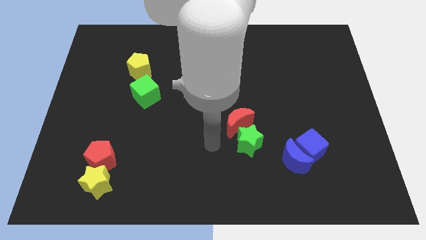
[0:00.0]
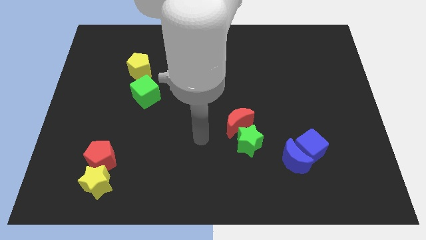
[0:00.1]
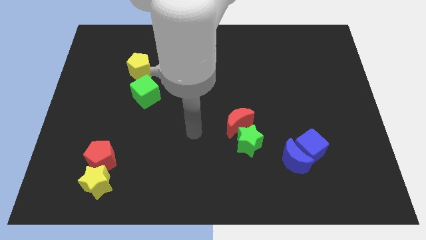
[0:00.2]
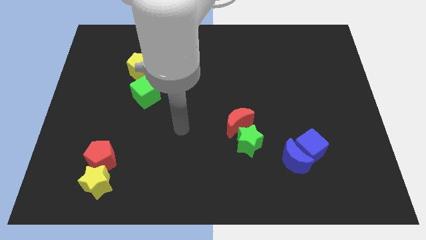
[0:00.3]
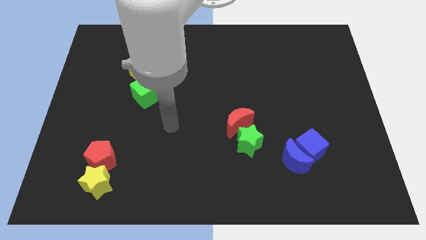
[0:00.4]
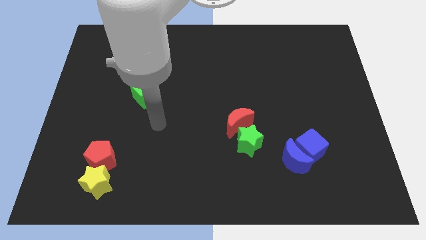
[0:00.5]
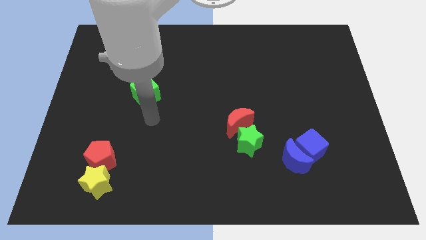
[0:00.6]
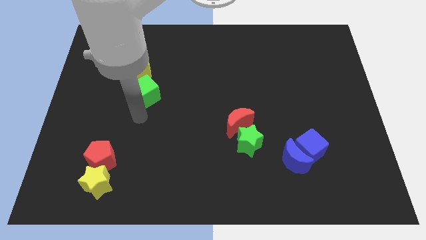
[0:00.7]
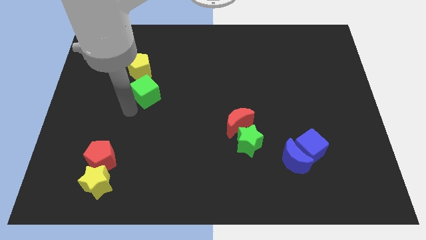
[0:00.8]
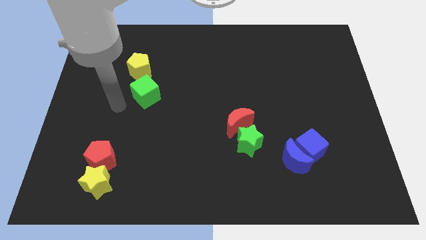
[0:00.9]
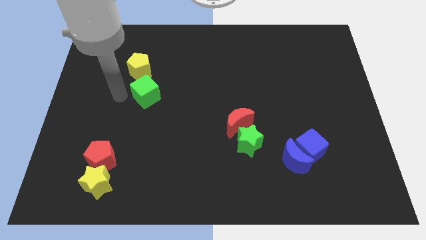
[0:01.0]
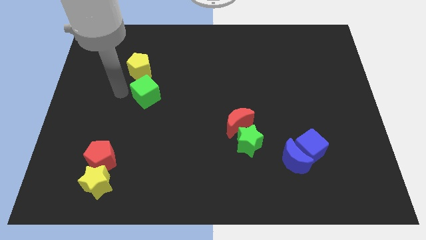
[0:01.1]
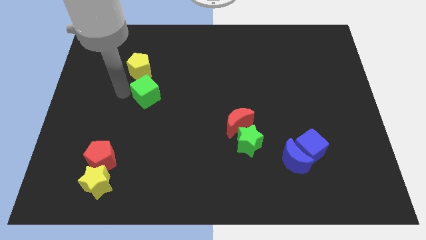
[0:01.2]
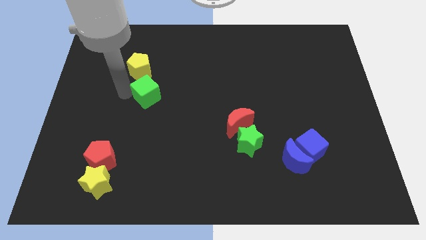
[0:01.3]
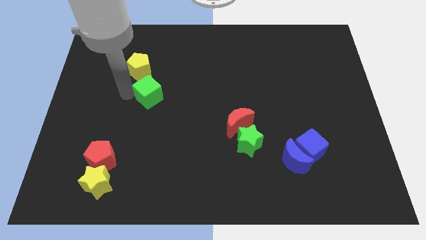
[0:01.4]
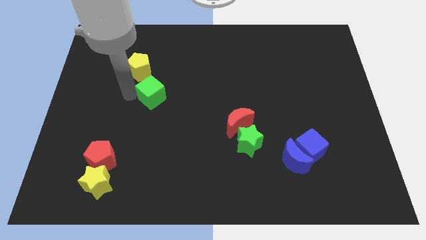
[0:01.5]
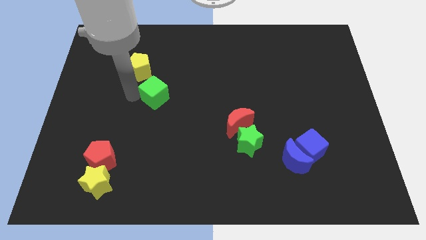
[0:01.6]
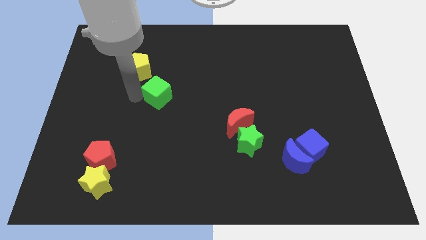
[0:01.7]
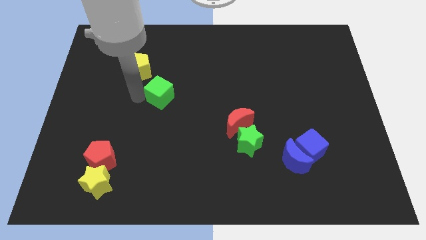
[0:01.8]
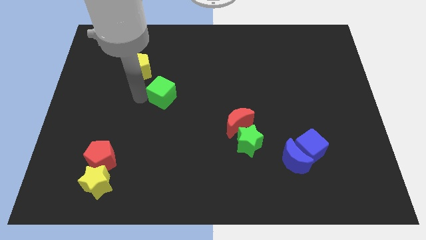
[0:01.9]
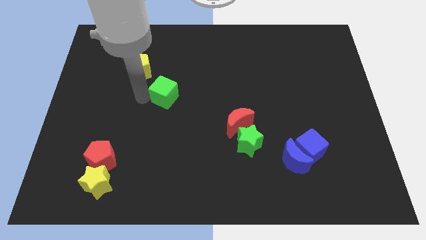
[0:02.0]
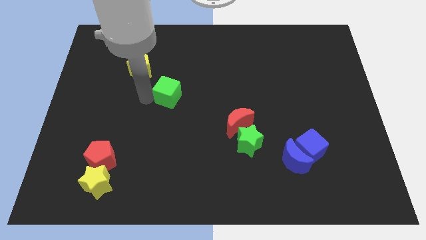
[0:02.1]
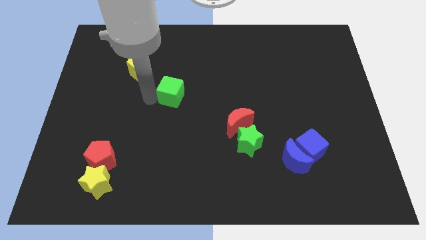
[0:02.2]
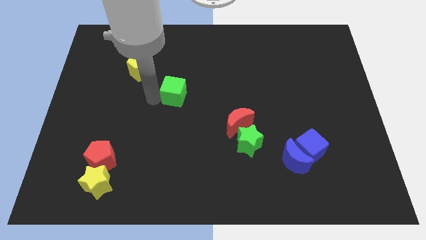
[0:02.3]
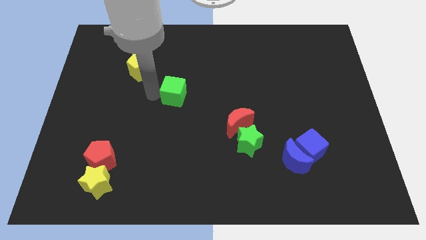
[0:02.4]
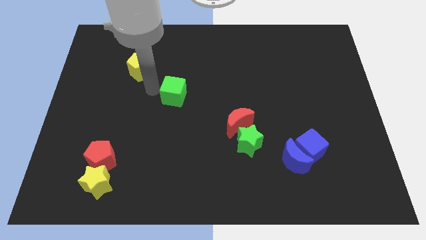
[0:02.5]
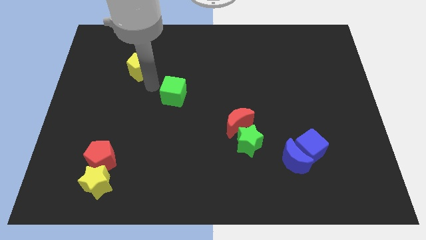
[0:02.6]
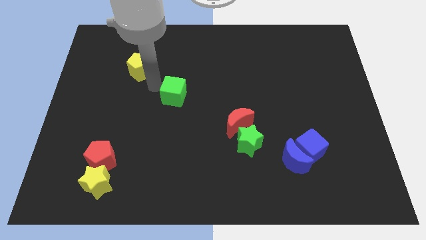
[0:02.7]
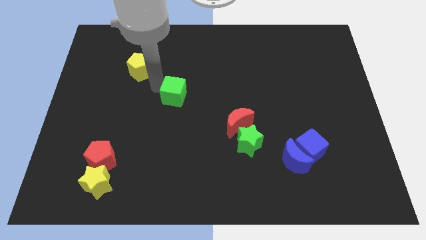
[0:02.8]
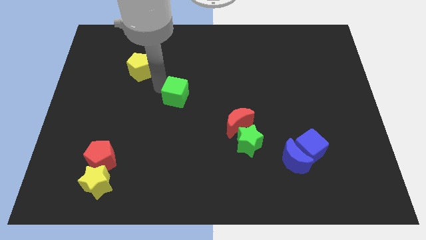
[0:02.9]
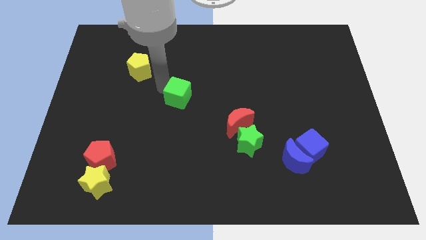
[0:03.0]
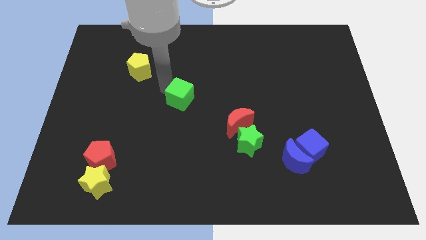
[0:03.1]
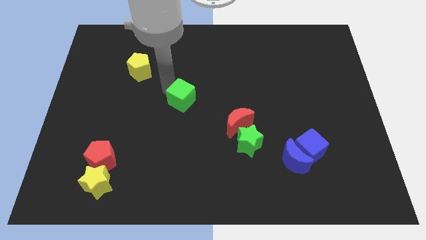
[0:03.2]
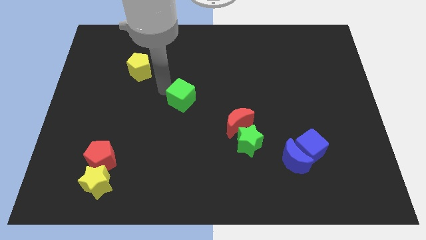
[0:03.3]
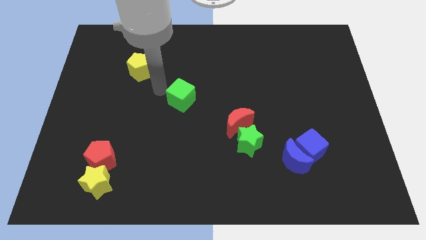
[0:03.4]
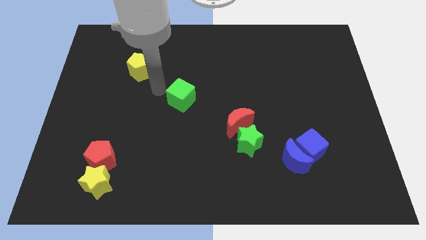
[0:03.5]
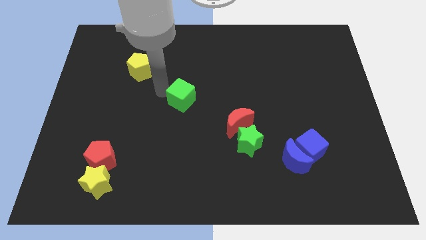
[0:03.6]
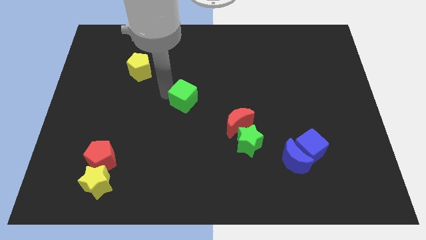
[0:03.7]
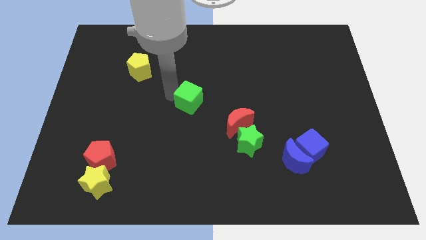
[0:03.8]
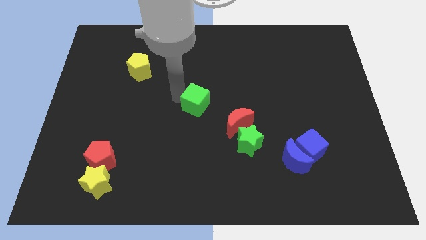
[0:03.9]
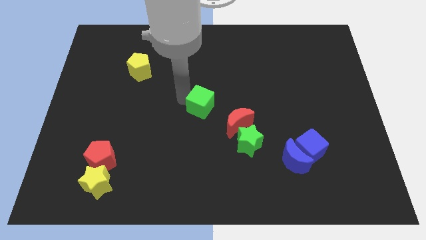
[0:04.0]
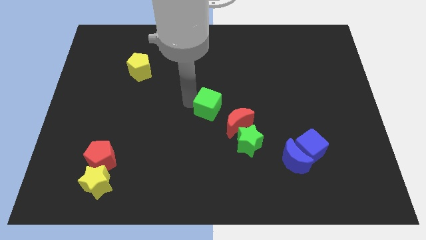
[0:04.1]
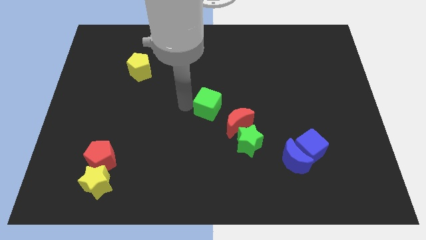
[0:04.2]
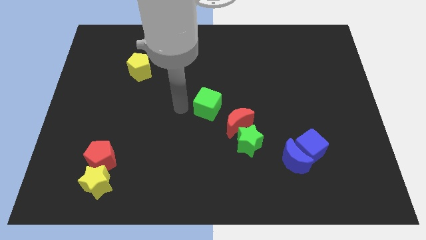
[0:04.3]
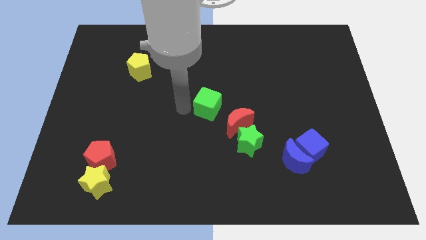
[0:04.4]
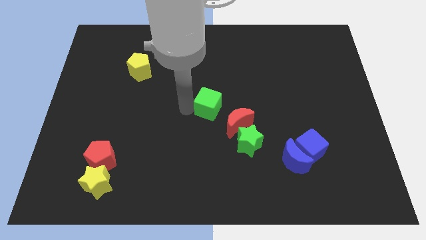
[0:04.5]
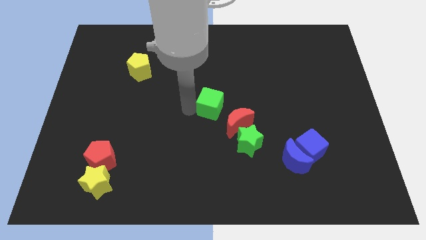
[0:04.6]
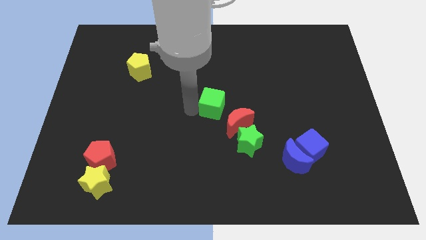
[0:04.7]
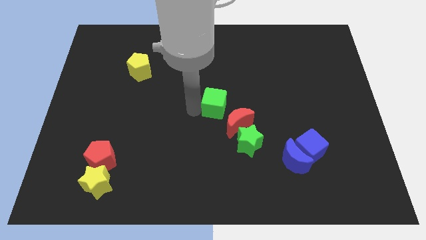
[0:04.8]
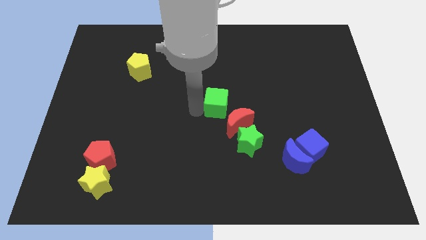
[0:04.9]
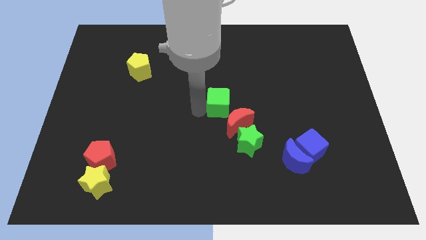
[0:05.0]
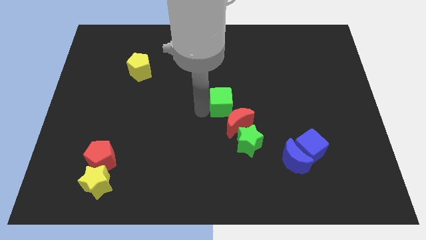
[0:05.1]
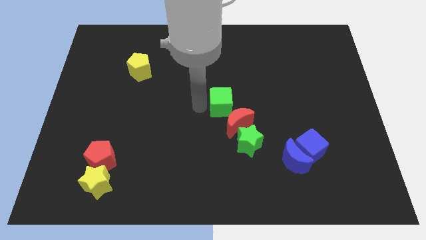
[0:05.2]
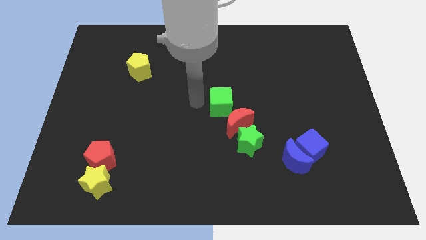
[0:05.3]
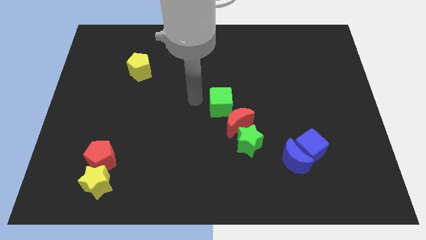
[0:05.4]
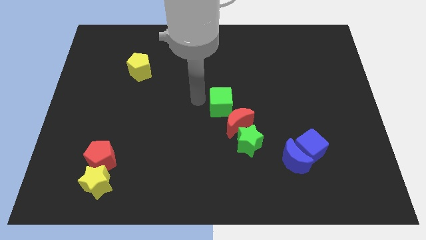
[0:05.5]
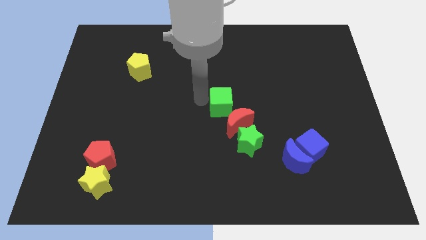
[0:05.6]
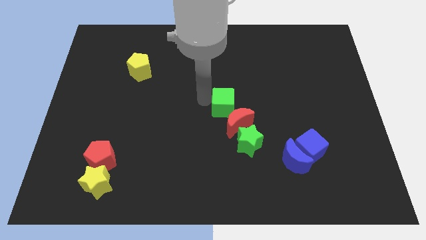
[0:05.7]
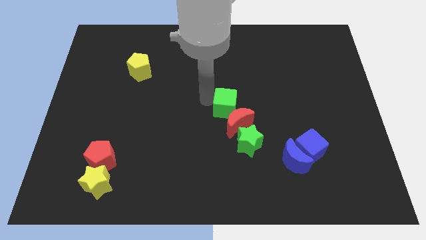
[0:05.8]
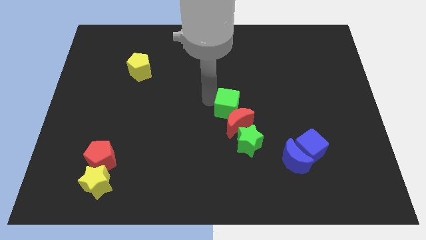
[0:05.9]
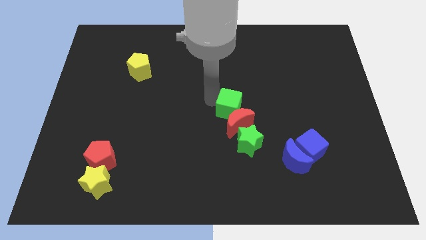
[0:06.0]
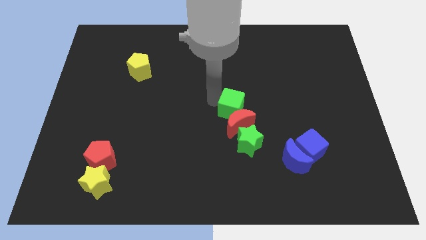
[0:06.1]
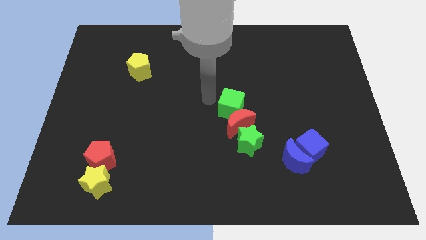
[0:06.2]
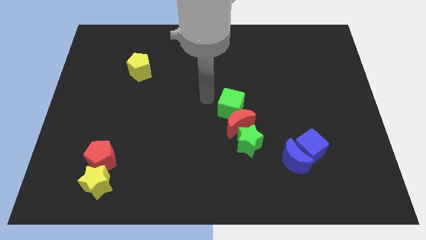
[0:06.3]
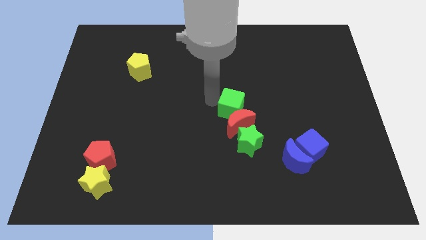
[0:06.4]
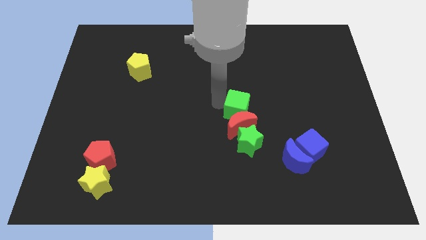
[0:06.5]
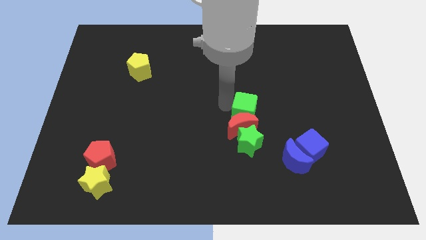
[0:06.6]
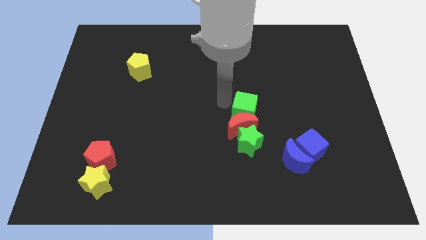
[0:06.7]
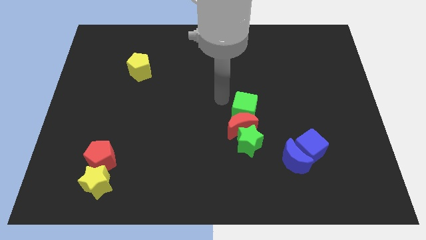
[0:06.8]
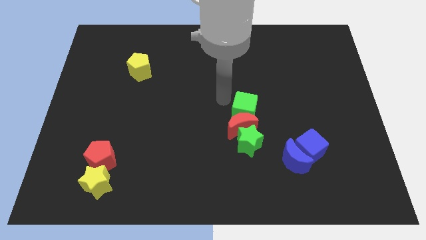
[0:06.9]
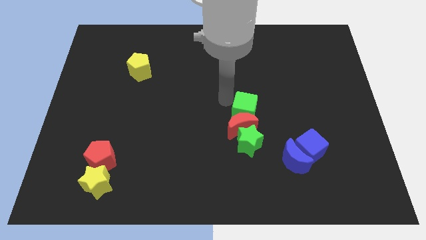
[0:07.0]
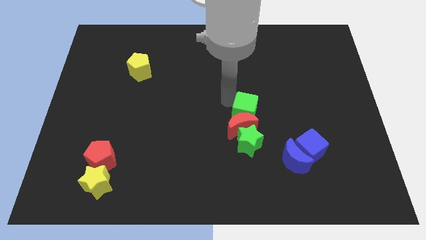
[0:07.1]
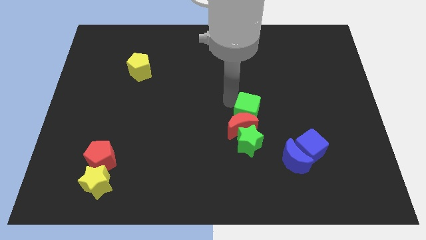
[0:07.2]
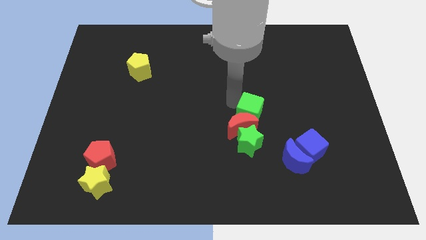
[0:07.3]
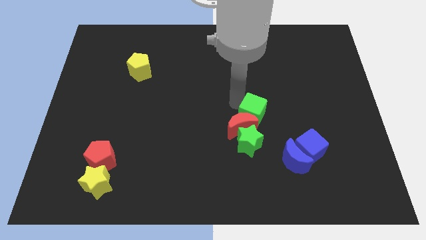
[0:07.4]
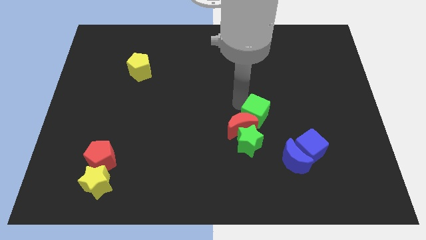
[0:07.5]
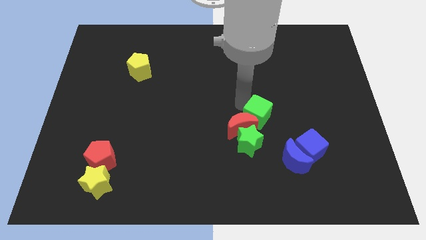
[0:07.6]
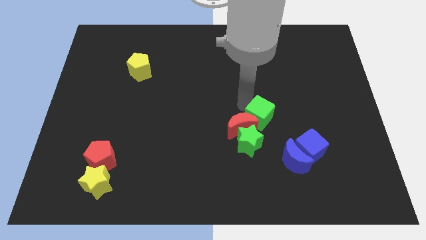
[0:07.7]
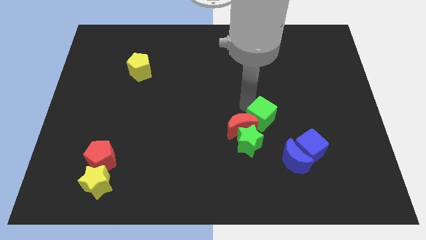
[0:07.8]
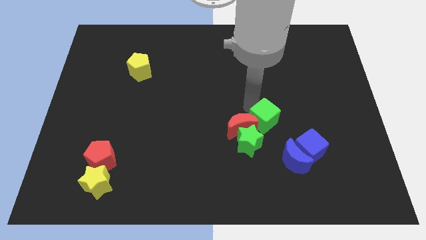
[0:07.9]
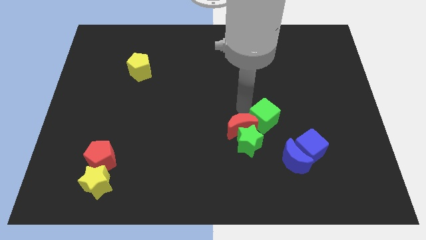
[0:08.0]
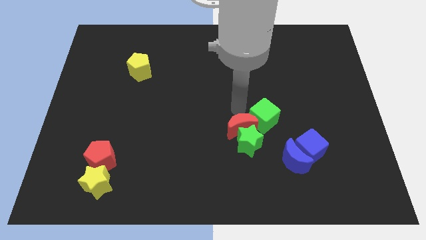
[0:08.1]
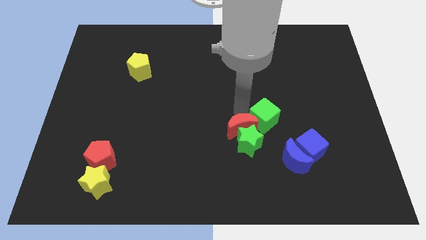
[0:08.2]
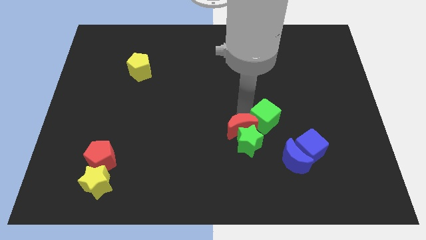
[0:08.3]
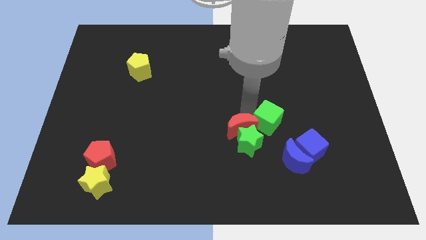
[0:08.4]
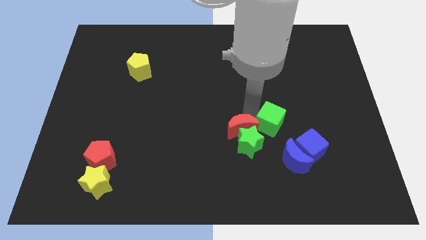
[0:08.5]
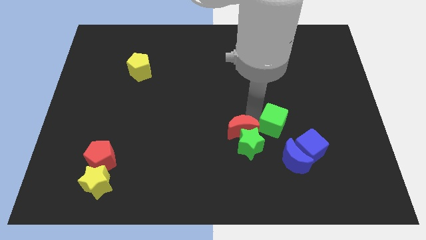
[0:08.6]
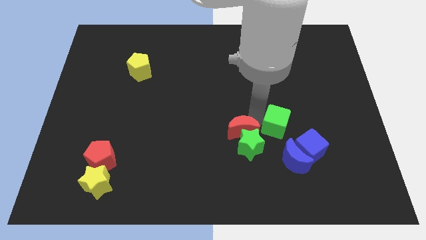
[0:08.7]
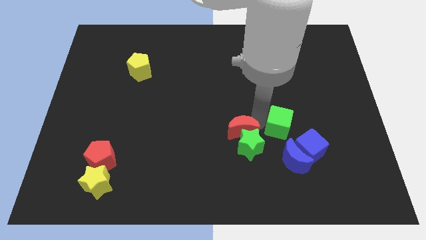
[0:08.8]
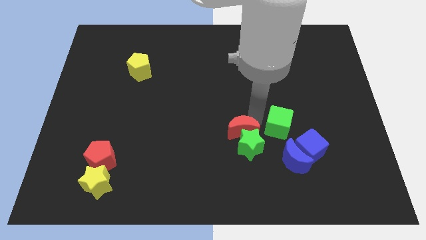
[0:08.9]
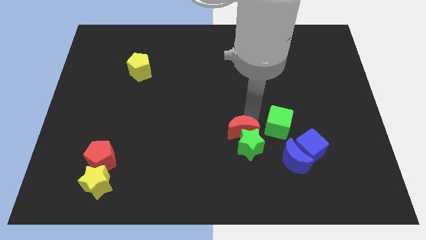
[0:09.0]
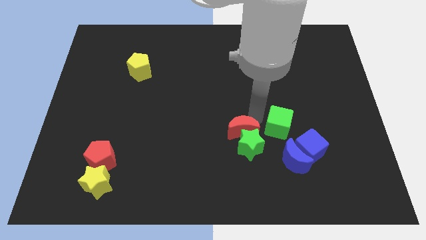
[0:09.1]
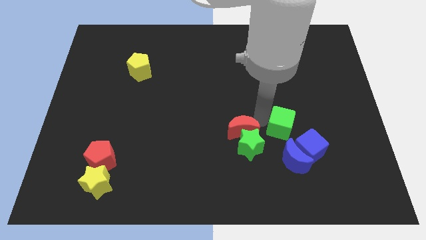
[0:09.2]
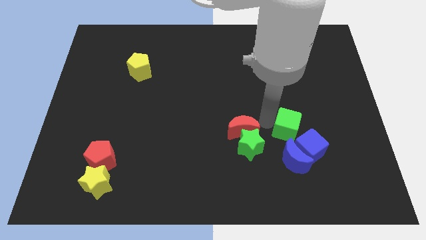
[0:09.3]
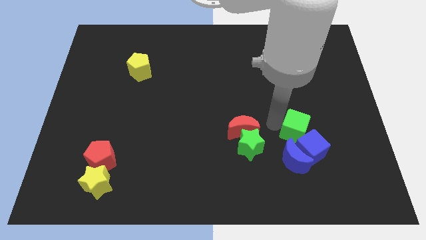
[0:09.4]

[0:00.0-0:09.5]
slide the green cube to the top right side of the blue moon
